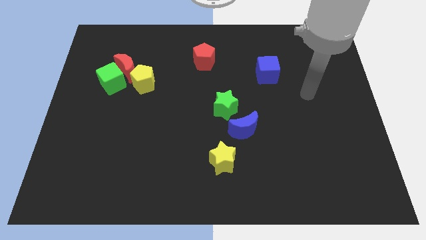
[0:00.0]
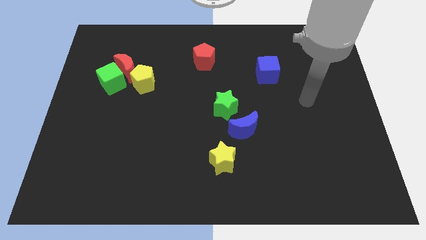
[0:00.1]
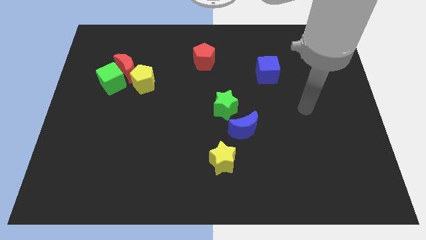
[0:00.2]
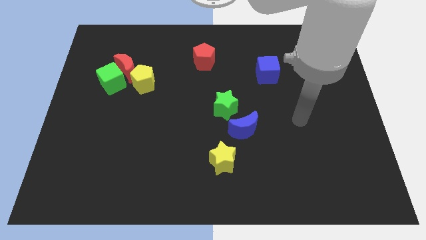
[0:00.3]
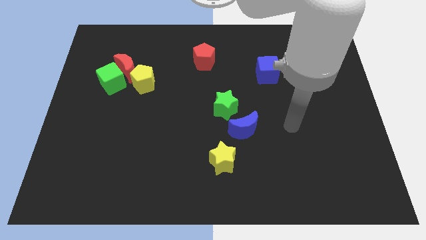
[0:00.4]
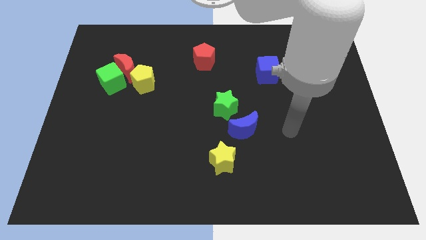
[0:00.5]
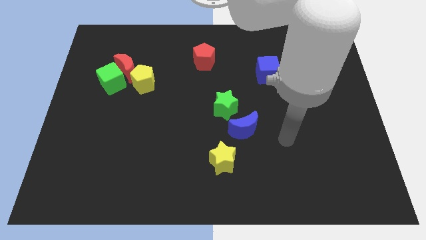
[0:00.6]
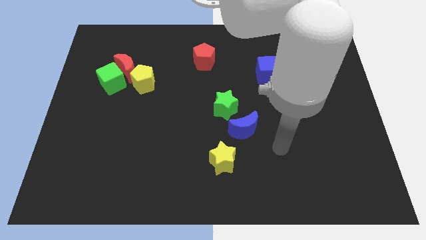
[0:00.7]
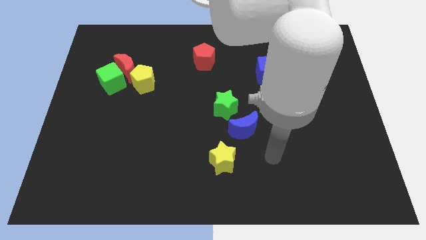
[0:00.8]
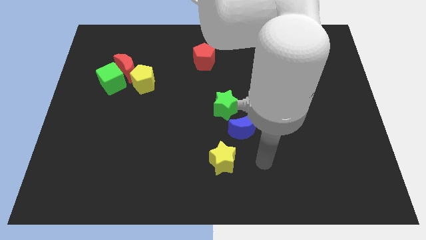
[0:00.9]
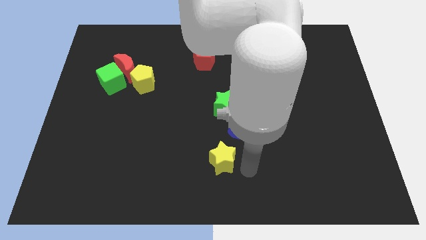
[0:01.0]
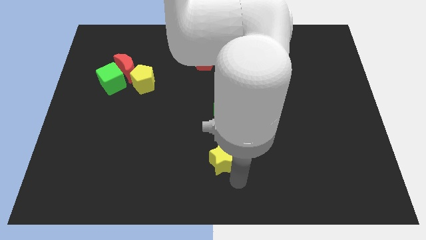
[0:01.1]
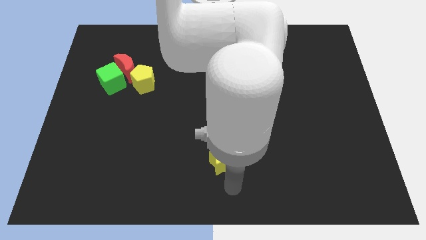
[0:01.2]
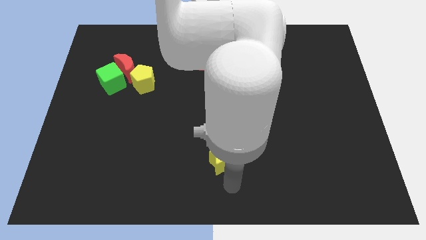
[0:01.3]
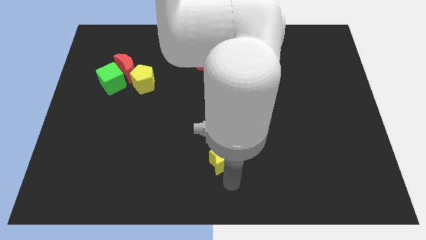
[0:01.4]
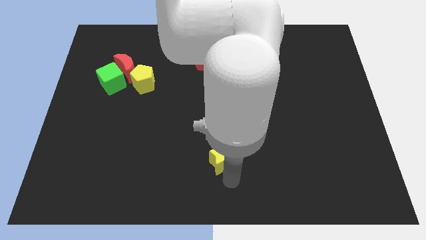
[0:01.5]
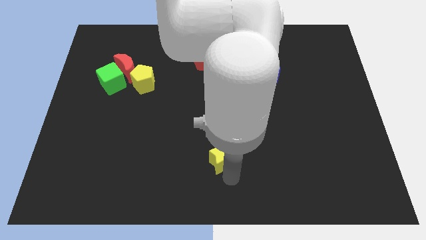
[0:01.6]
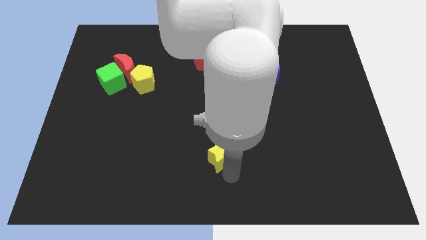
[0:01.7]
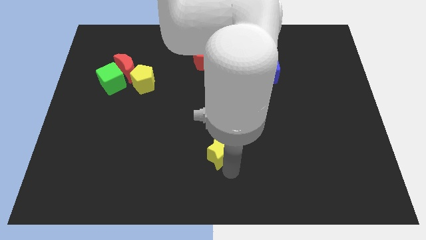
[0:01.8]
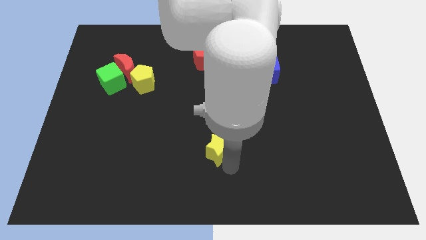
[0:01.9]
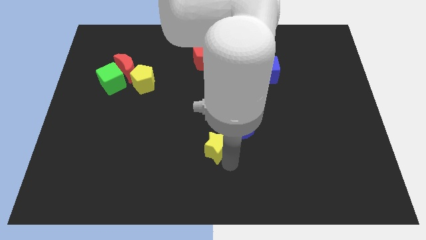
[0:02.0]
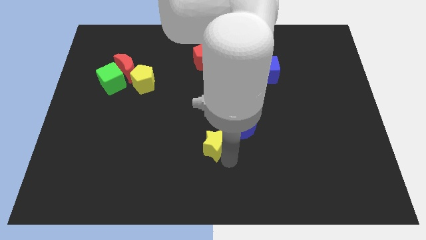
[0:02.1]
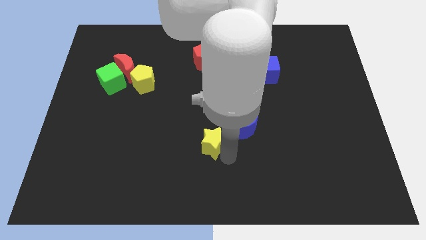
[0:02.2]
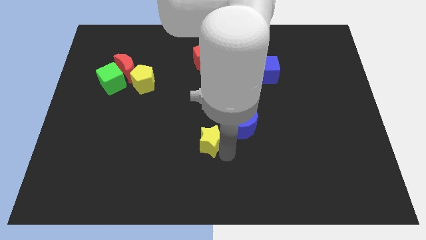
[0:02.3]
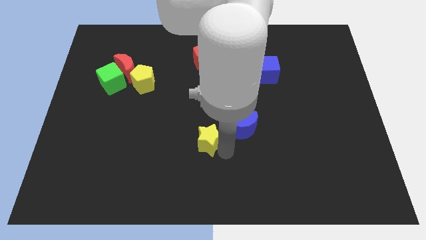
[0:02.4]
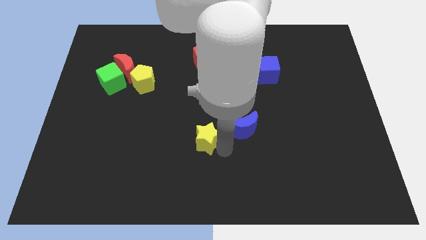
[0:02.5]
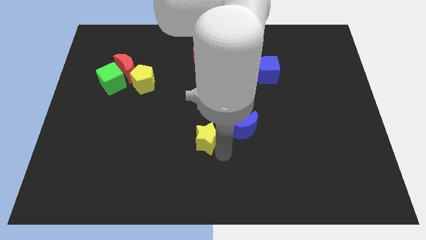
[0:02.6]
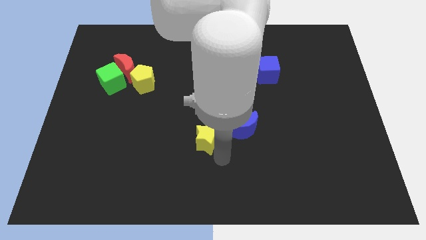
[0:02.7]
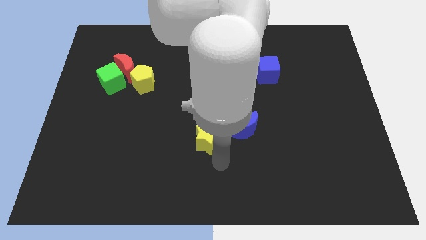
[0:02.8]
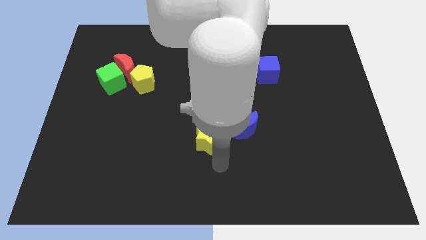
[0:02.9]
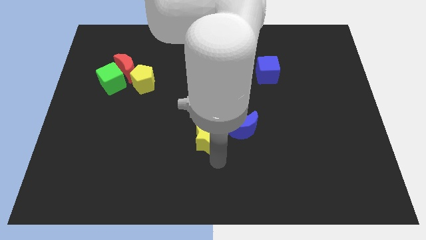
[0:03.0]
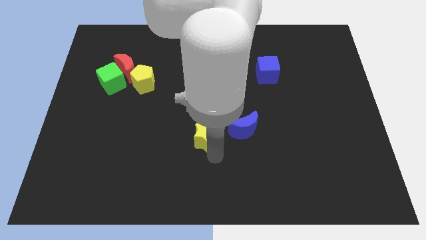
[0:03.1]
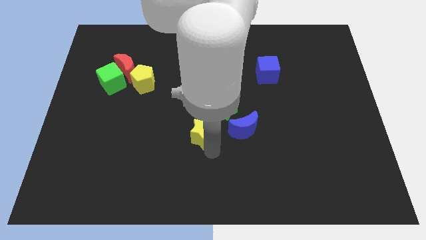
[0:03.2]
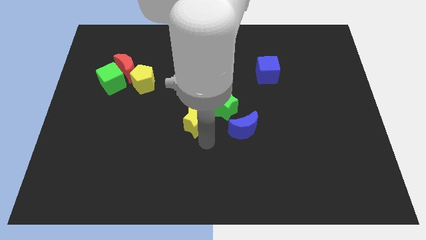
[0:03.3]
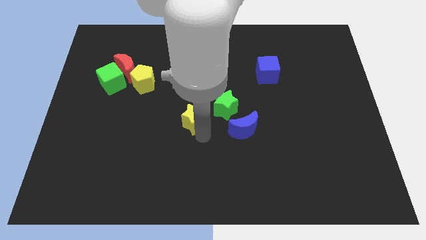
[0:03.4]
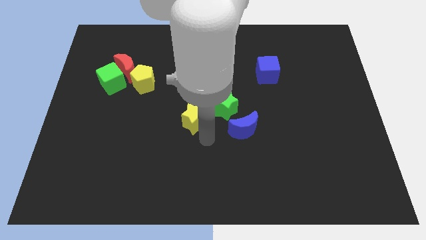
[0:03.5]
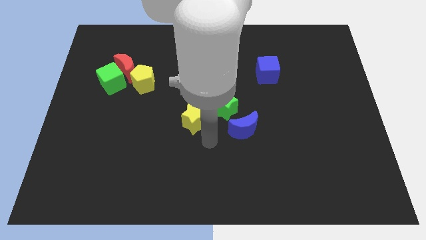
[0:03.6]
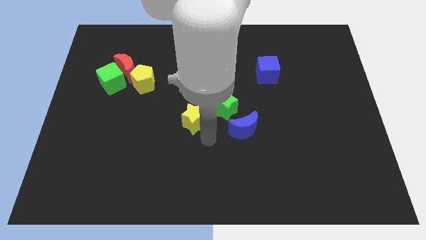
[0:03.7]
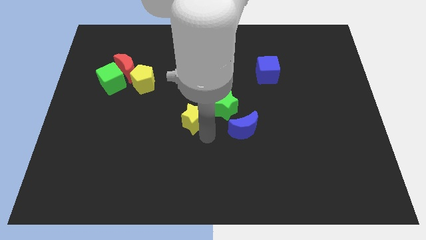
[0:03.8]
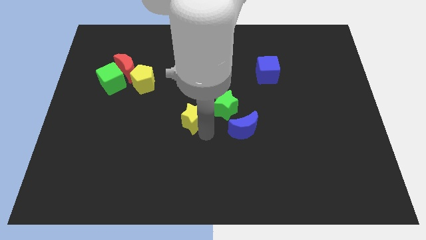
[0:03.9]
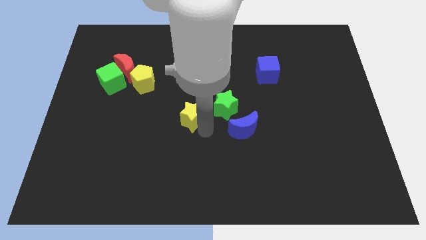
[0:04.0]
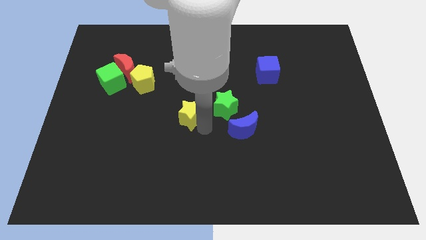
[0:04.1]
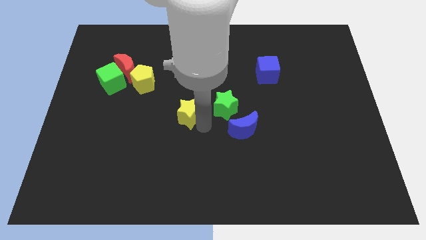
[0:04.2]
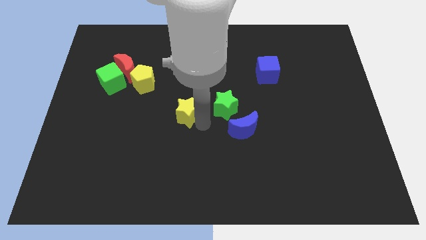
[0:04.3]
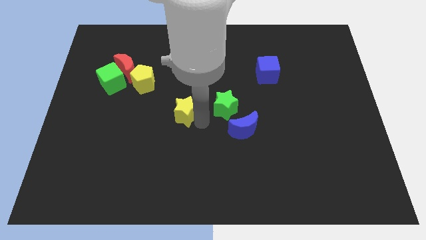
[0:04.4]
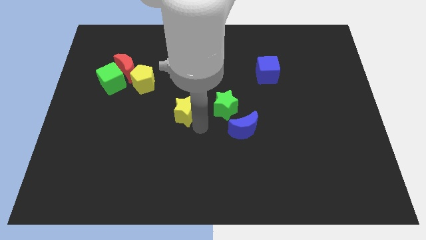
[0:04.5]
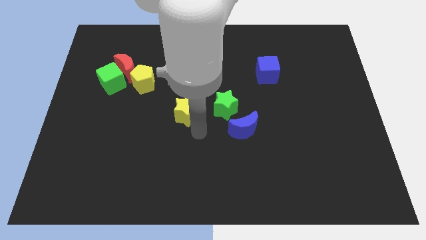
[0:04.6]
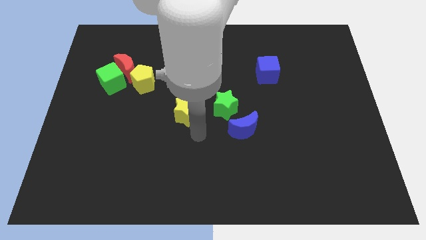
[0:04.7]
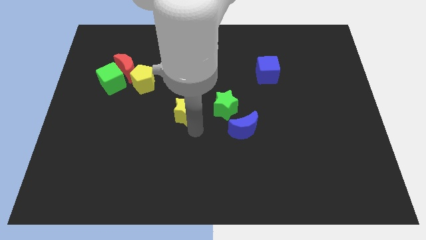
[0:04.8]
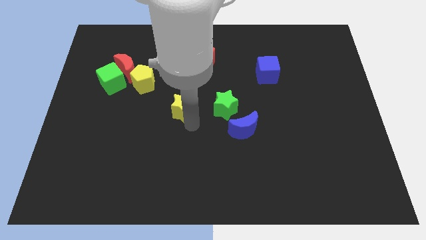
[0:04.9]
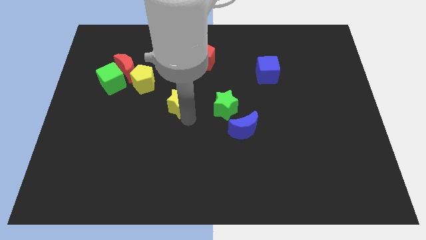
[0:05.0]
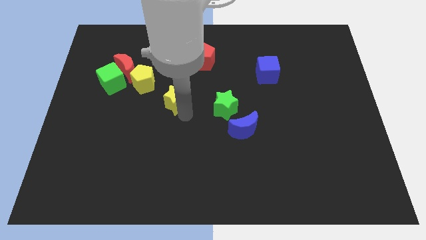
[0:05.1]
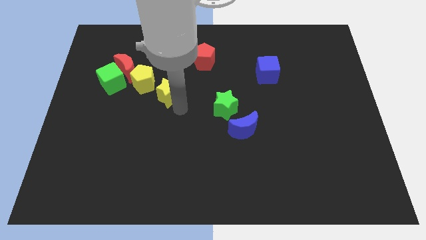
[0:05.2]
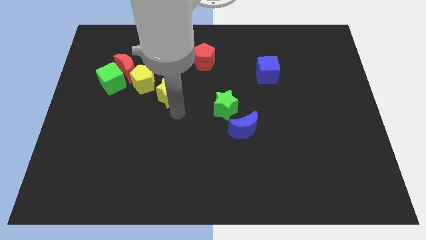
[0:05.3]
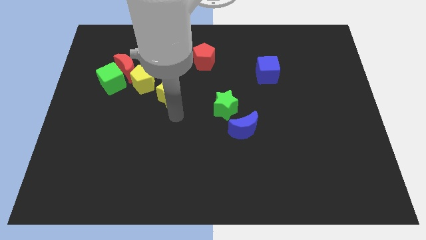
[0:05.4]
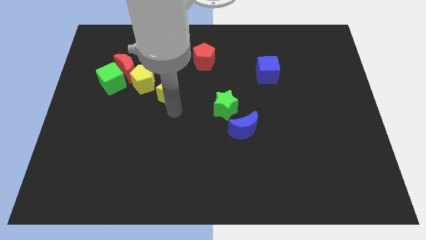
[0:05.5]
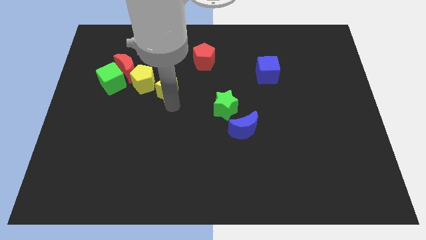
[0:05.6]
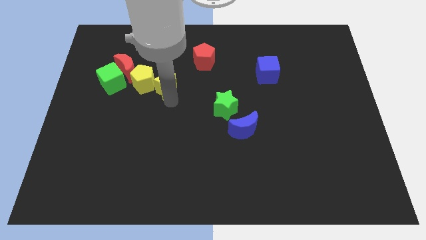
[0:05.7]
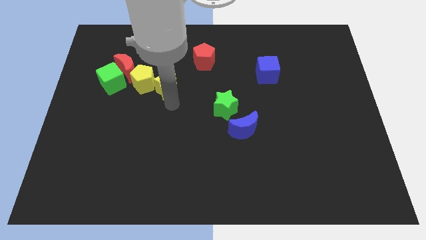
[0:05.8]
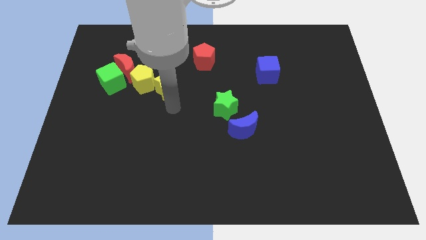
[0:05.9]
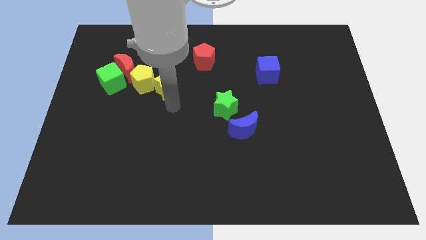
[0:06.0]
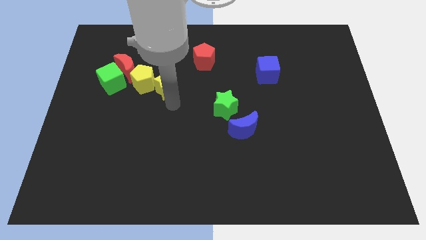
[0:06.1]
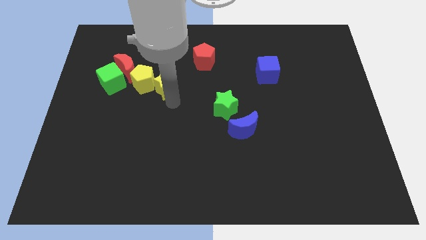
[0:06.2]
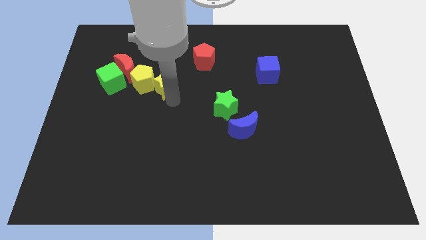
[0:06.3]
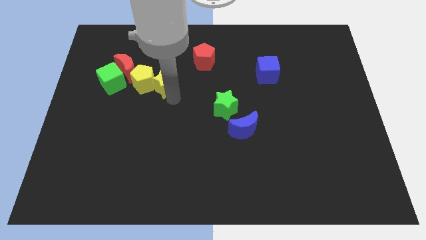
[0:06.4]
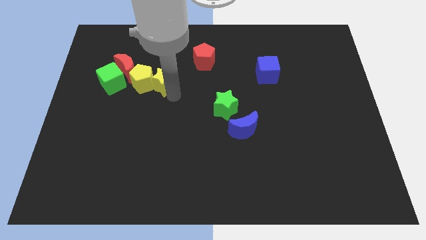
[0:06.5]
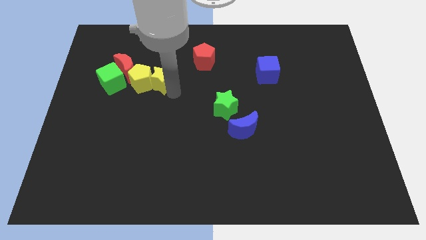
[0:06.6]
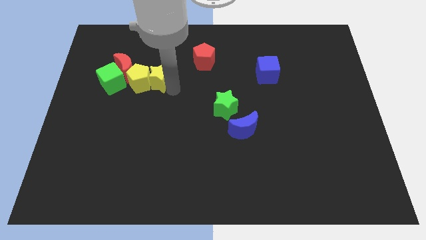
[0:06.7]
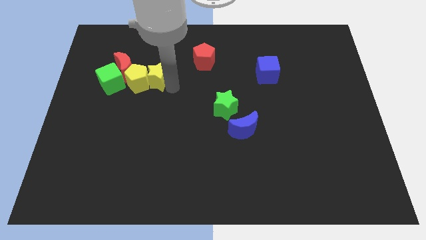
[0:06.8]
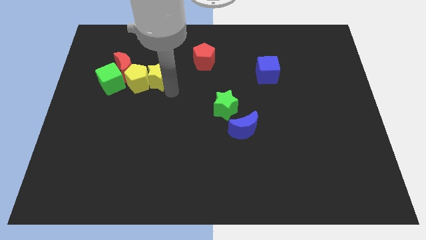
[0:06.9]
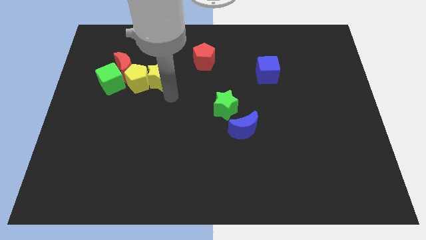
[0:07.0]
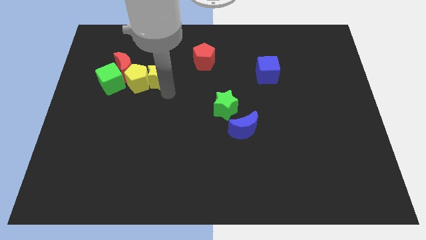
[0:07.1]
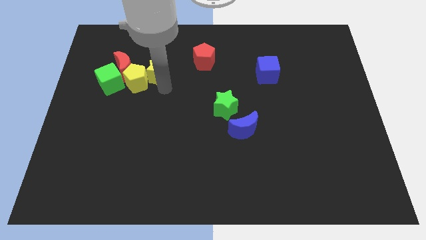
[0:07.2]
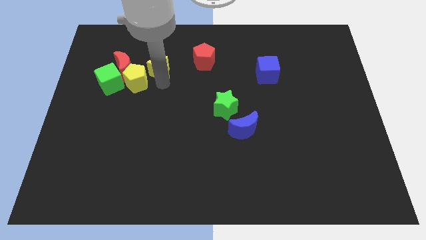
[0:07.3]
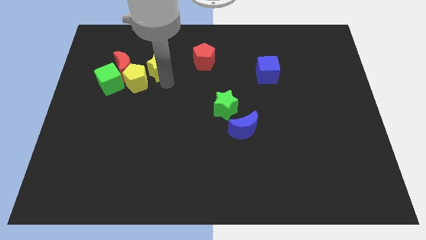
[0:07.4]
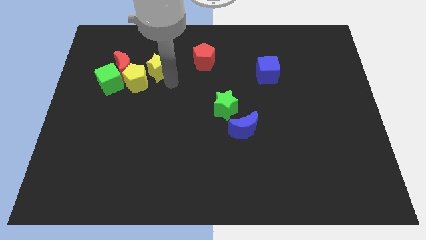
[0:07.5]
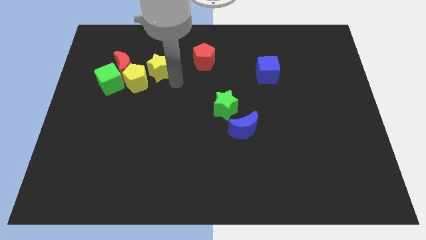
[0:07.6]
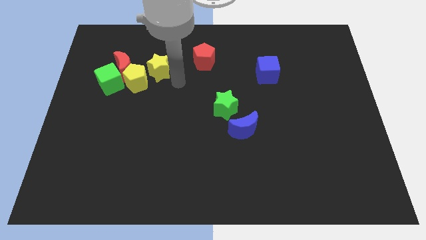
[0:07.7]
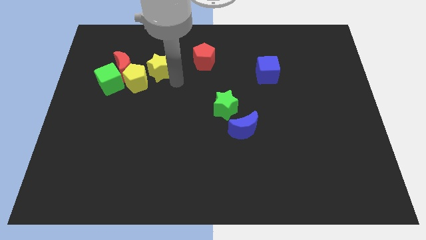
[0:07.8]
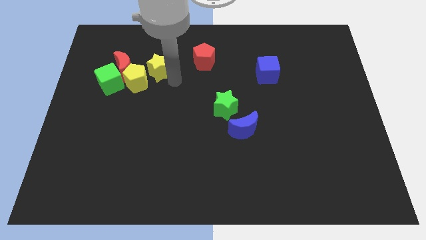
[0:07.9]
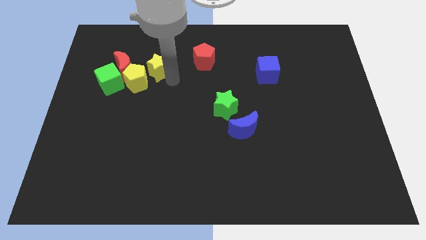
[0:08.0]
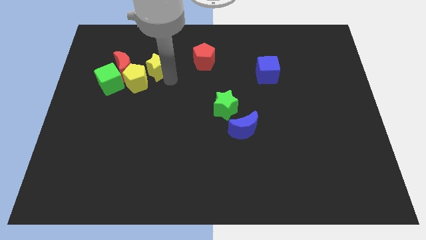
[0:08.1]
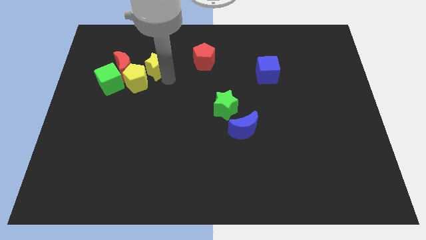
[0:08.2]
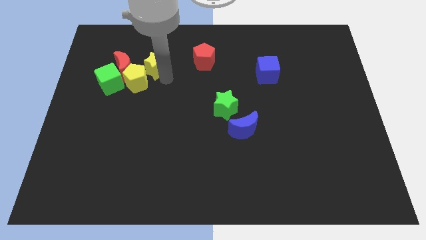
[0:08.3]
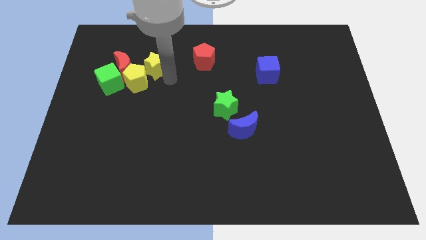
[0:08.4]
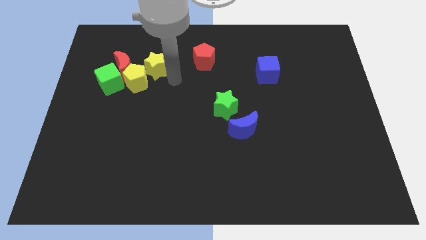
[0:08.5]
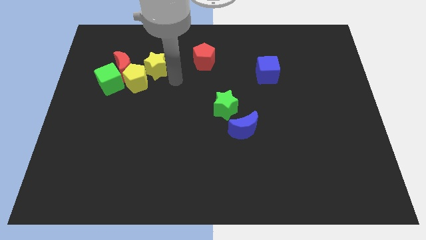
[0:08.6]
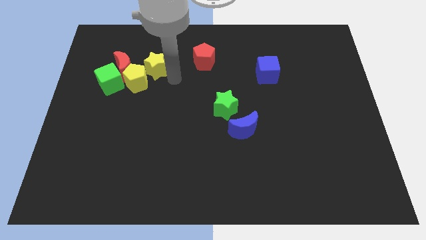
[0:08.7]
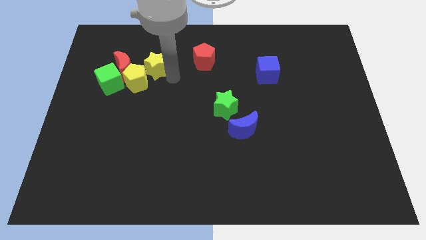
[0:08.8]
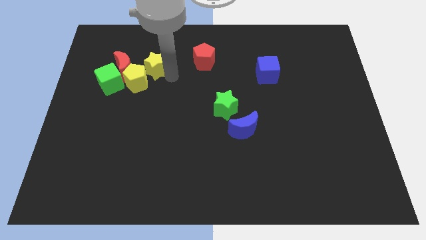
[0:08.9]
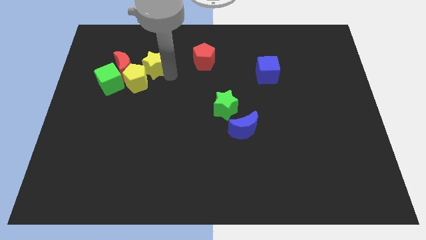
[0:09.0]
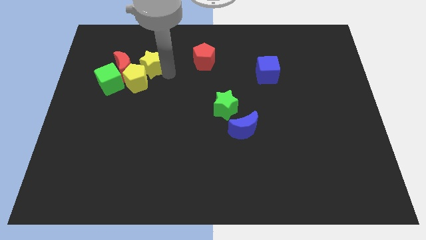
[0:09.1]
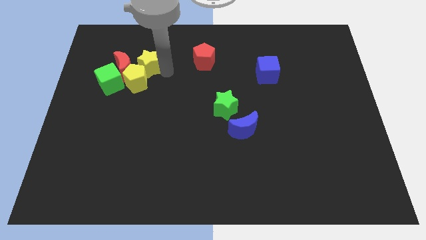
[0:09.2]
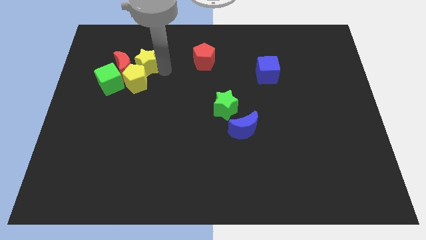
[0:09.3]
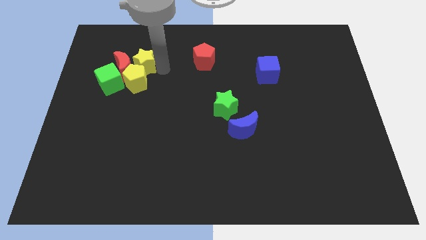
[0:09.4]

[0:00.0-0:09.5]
push the yellow star to the top left of the yellow pentagon
